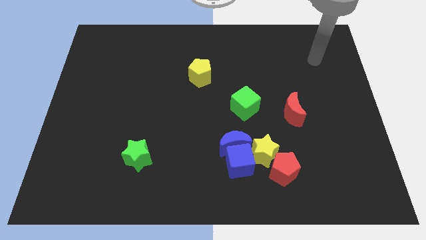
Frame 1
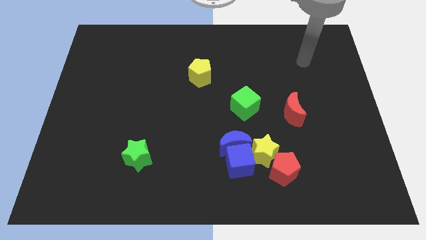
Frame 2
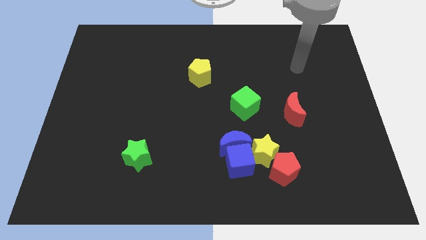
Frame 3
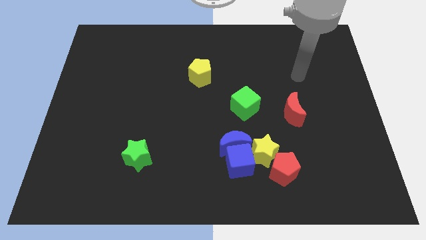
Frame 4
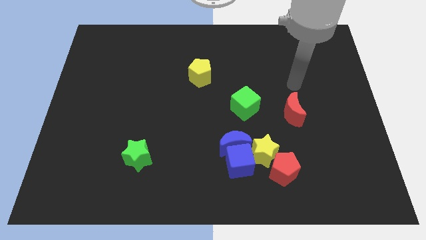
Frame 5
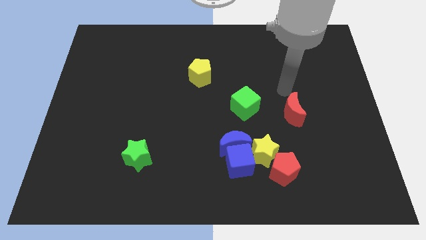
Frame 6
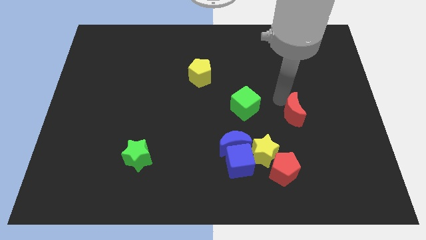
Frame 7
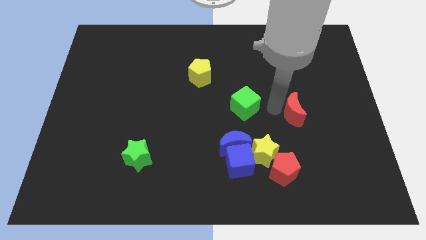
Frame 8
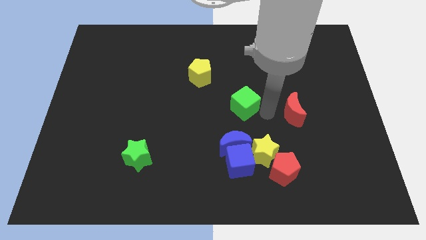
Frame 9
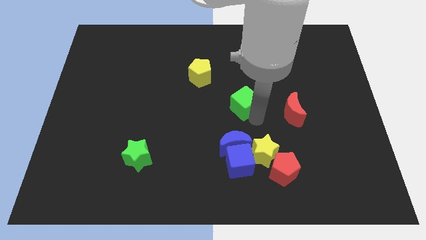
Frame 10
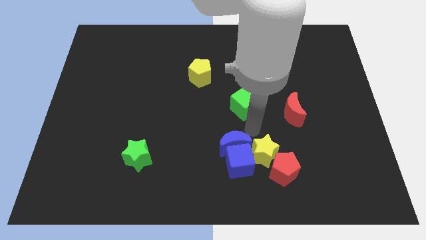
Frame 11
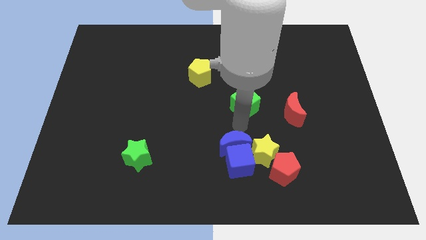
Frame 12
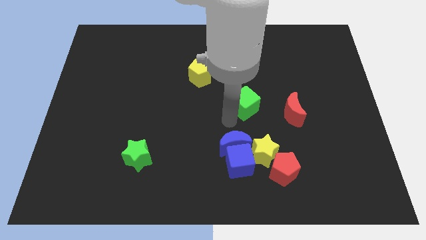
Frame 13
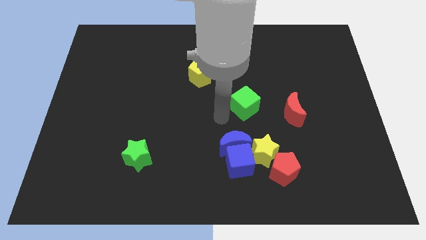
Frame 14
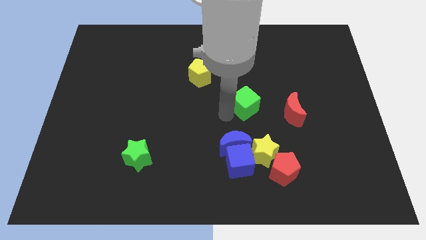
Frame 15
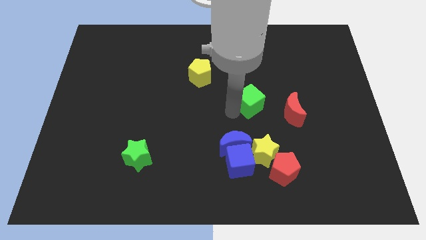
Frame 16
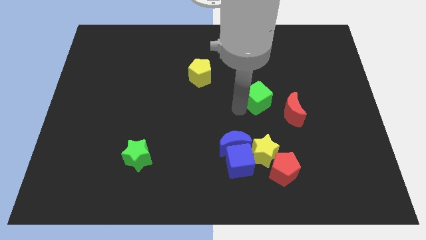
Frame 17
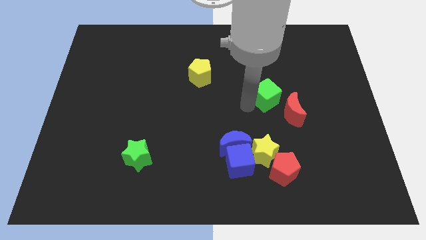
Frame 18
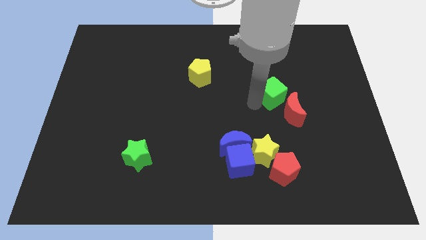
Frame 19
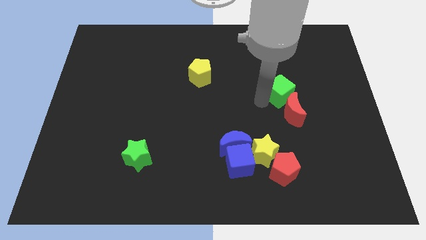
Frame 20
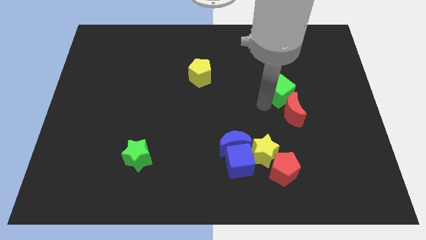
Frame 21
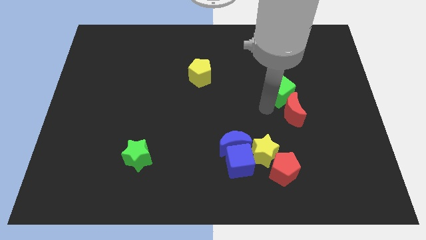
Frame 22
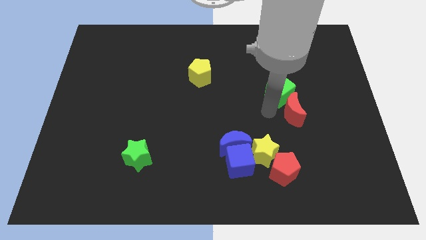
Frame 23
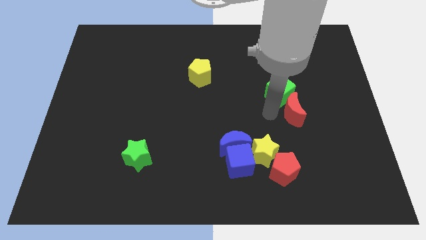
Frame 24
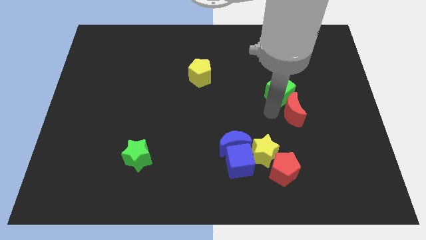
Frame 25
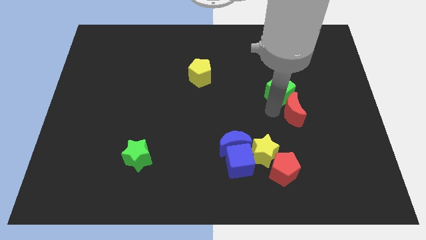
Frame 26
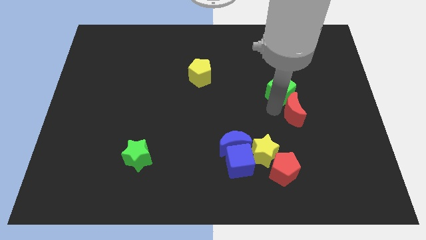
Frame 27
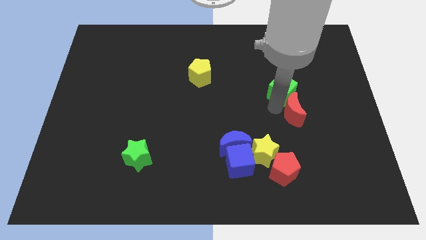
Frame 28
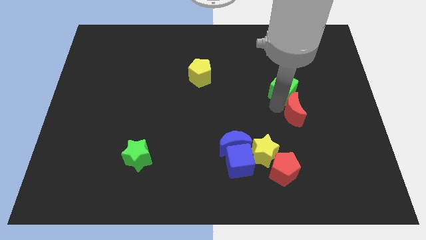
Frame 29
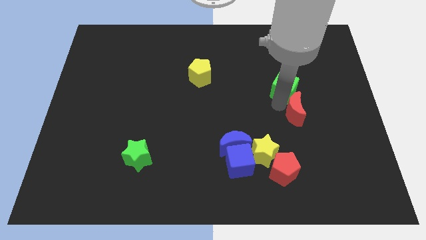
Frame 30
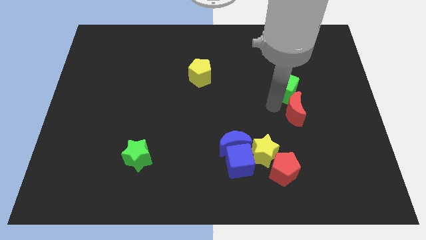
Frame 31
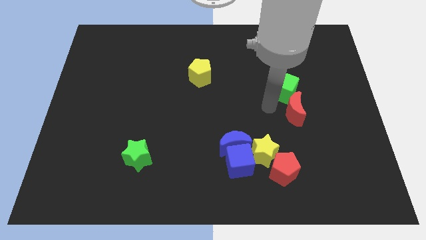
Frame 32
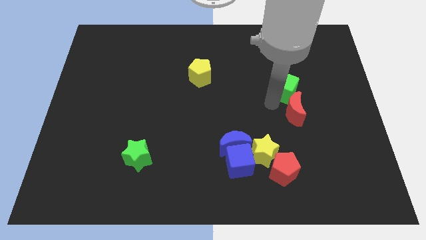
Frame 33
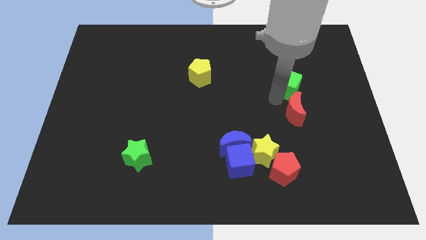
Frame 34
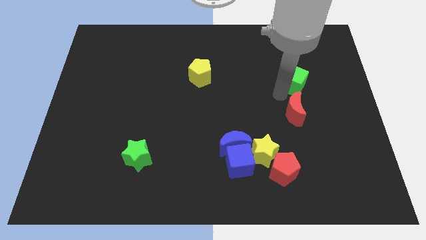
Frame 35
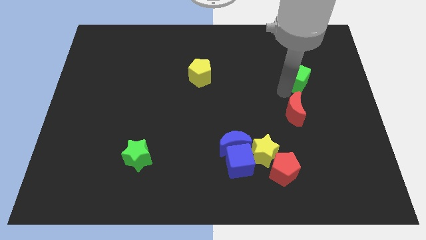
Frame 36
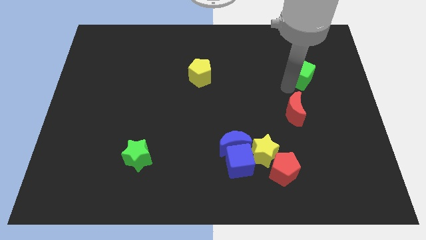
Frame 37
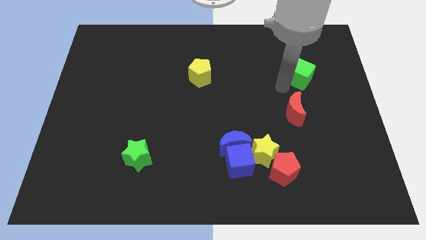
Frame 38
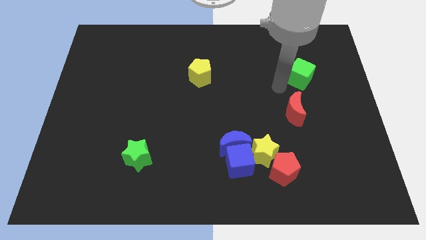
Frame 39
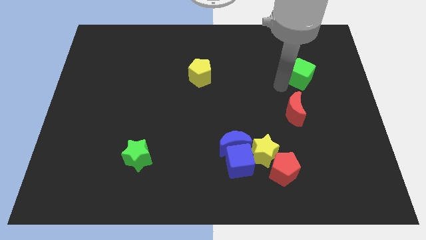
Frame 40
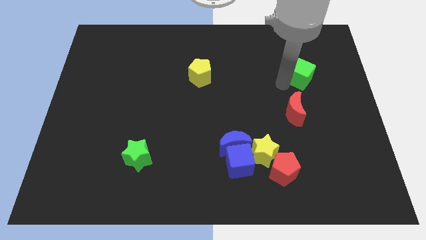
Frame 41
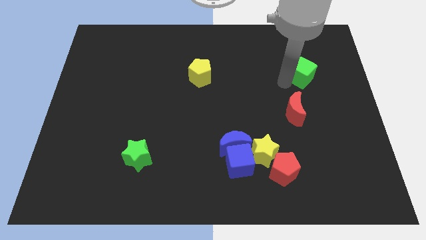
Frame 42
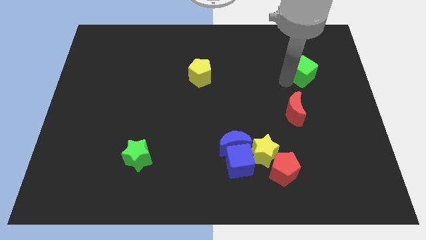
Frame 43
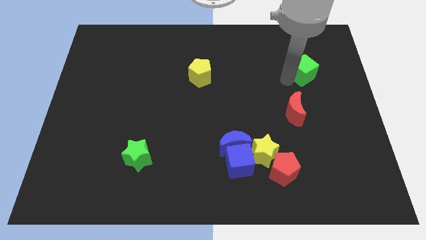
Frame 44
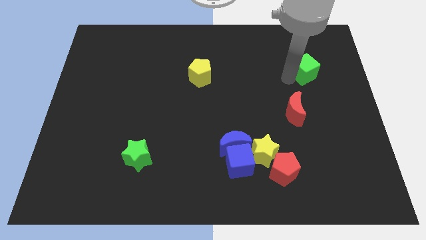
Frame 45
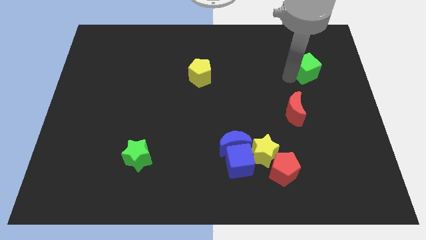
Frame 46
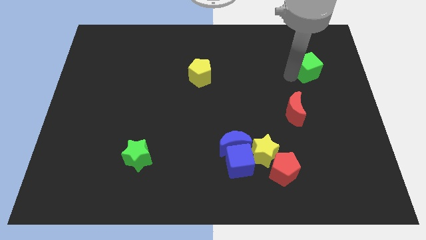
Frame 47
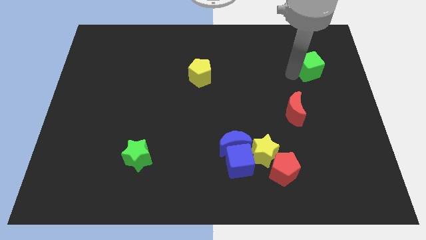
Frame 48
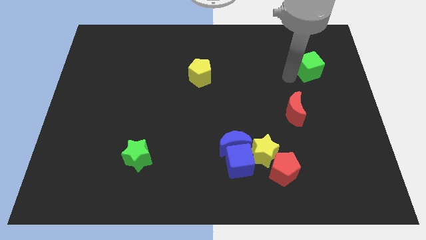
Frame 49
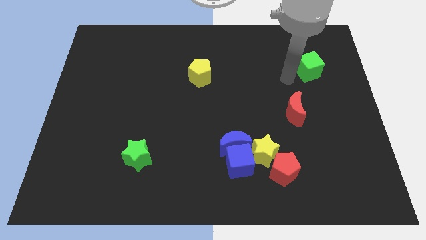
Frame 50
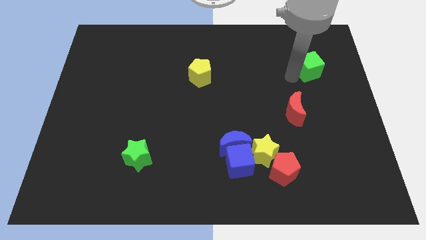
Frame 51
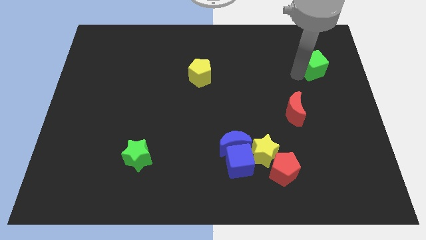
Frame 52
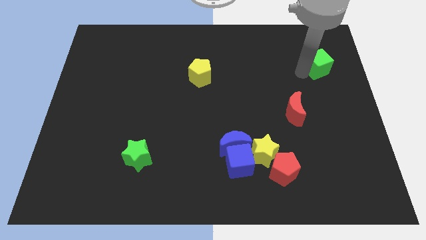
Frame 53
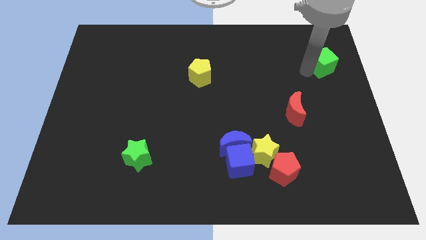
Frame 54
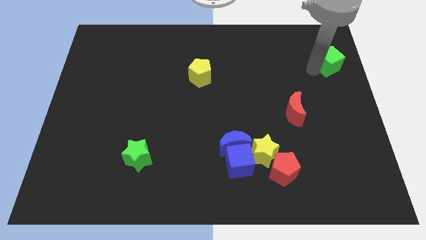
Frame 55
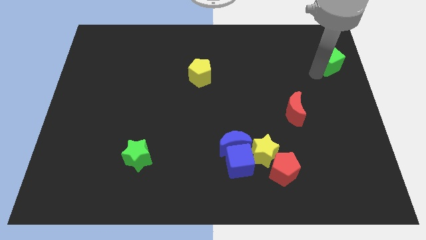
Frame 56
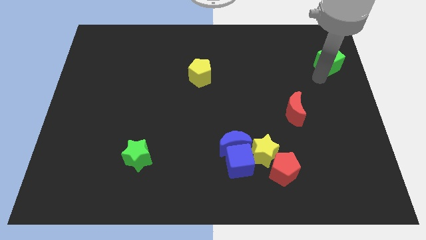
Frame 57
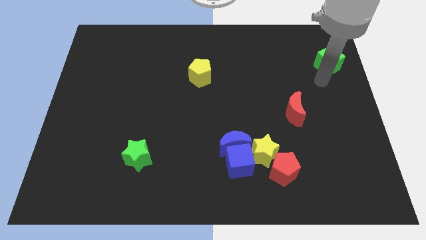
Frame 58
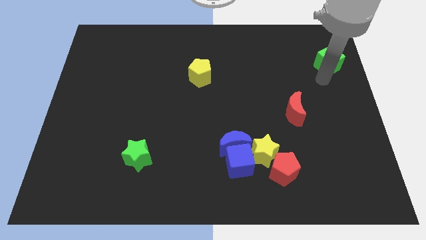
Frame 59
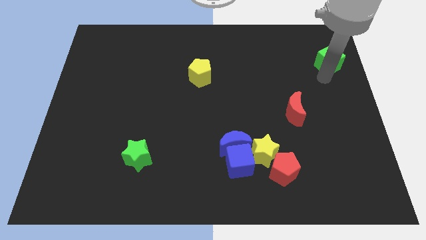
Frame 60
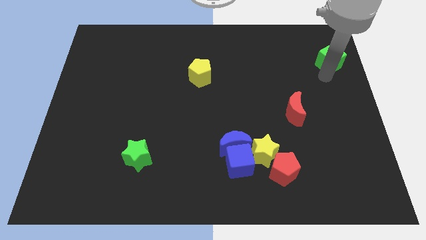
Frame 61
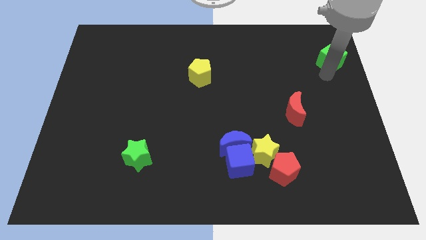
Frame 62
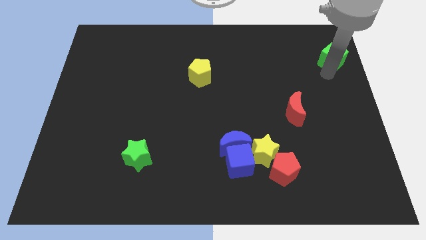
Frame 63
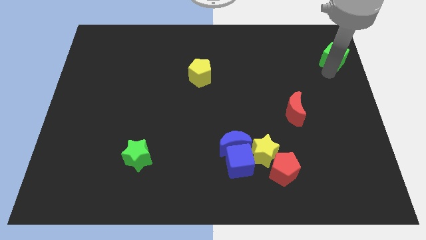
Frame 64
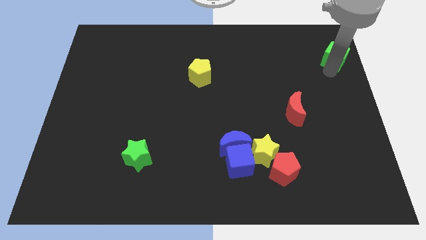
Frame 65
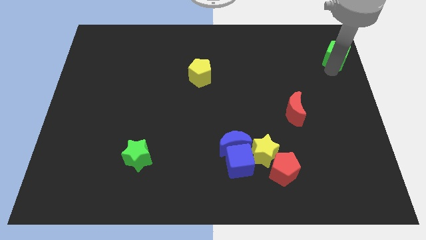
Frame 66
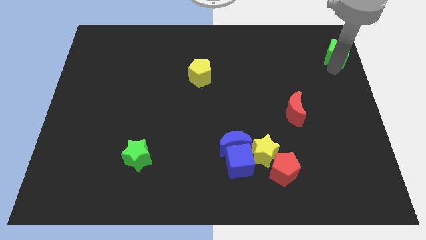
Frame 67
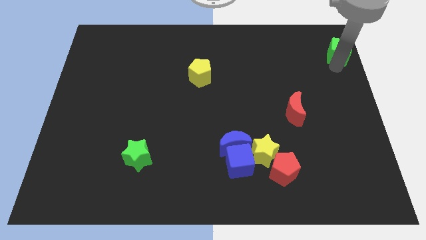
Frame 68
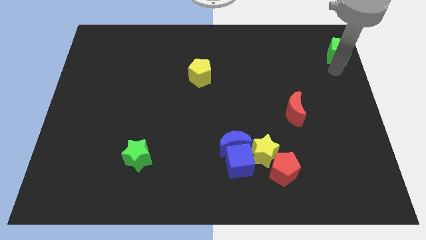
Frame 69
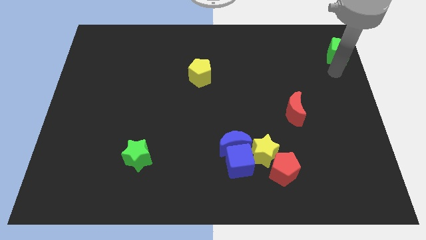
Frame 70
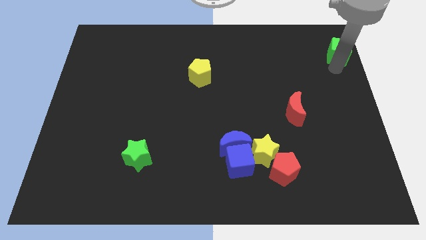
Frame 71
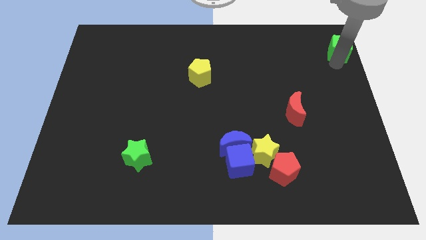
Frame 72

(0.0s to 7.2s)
put the green cube to the top right corner
